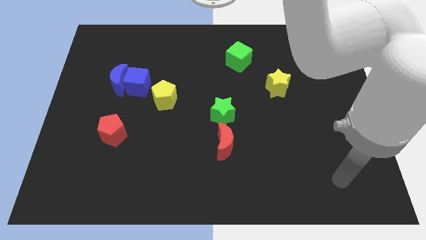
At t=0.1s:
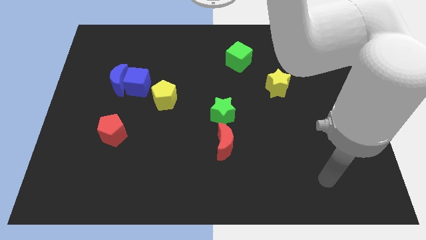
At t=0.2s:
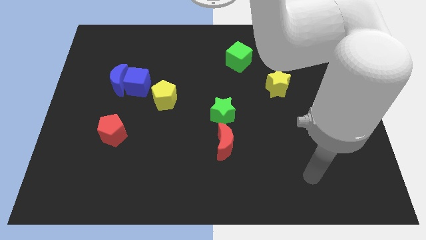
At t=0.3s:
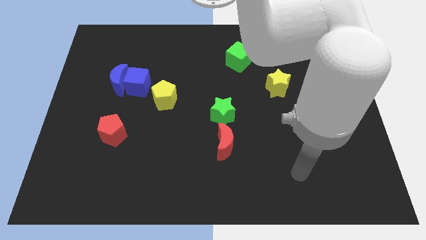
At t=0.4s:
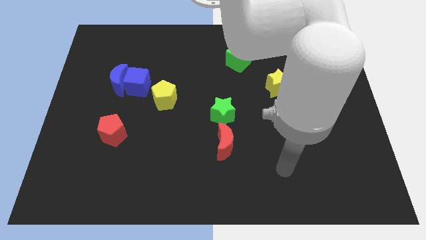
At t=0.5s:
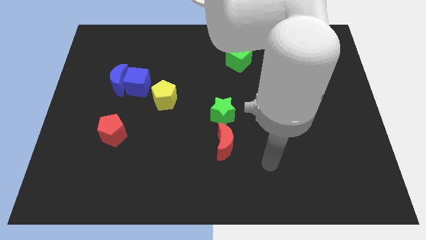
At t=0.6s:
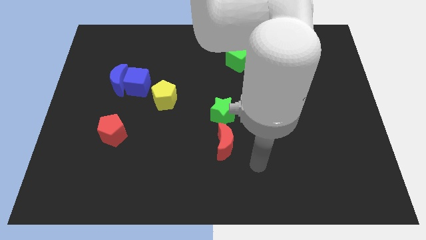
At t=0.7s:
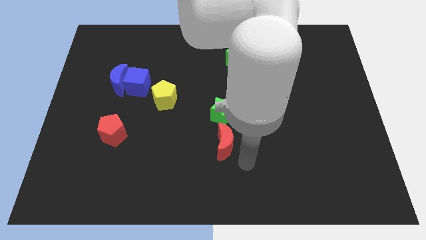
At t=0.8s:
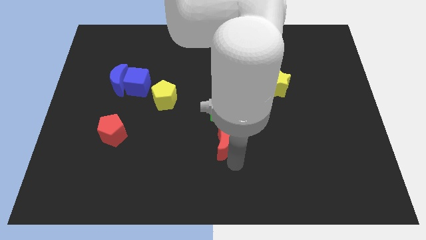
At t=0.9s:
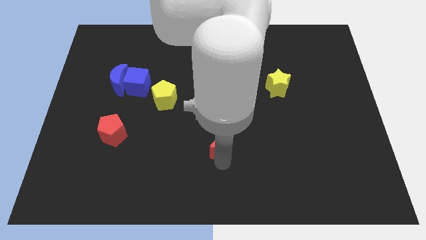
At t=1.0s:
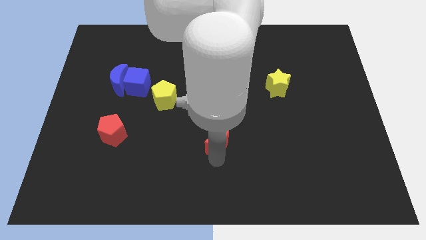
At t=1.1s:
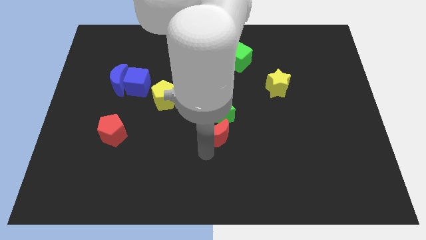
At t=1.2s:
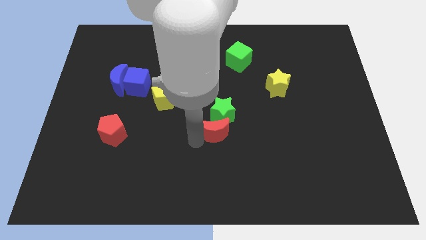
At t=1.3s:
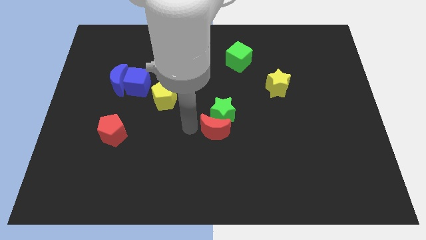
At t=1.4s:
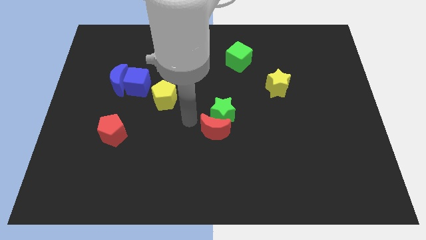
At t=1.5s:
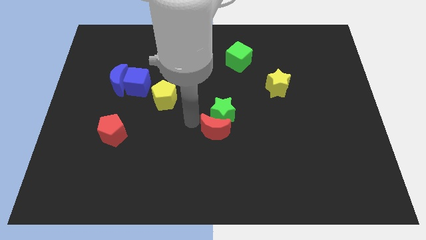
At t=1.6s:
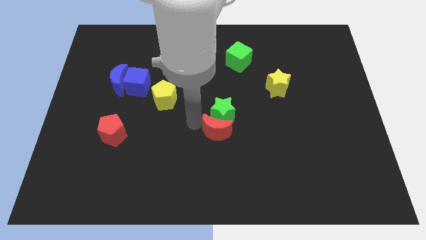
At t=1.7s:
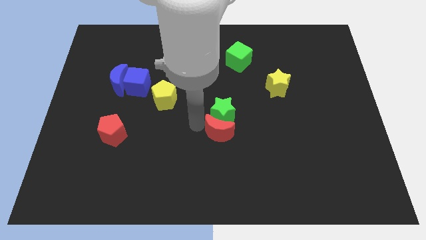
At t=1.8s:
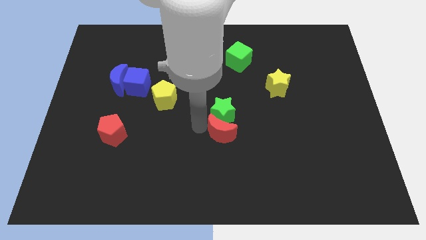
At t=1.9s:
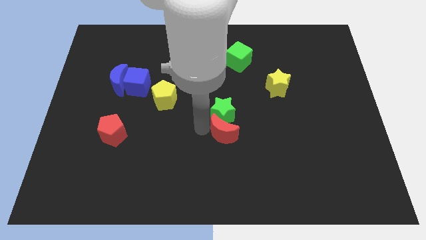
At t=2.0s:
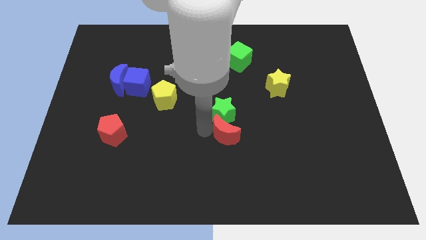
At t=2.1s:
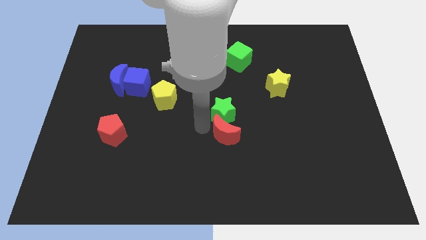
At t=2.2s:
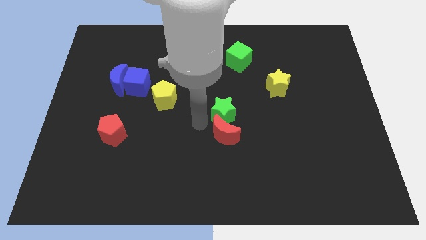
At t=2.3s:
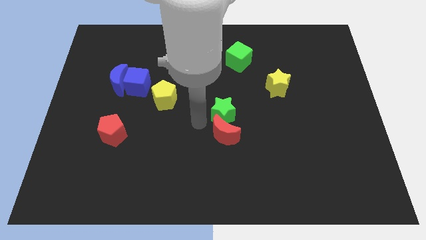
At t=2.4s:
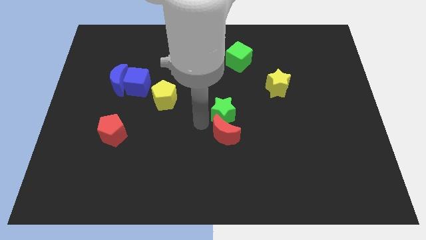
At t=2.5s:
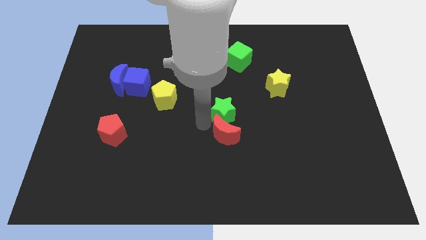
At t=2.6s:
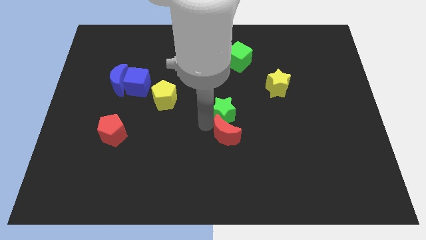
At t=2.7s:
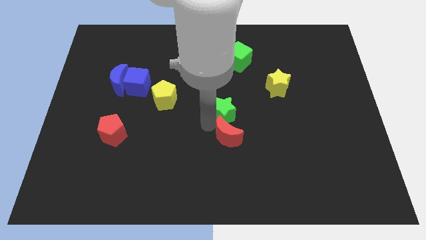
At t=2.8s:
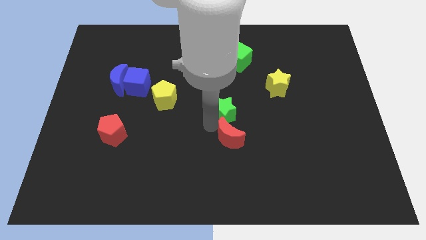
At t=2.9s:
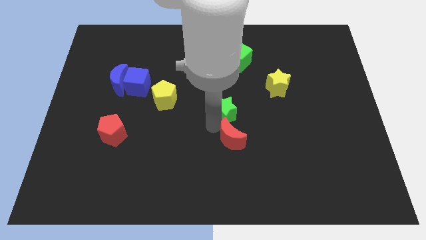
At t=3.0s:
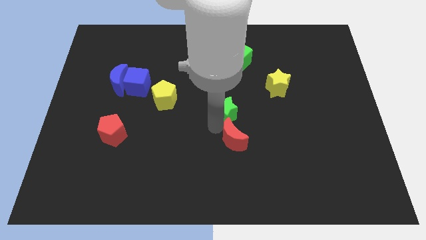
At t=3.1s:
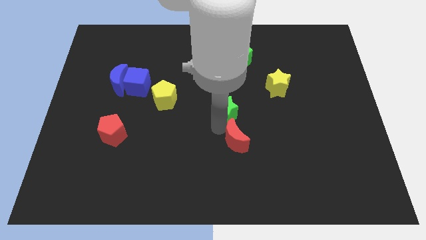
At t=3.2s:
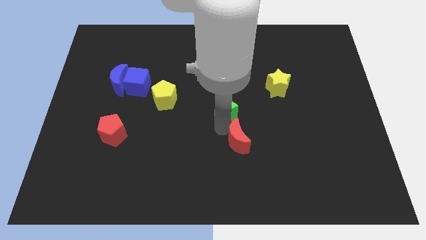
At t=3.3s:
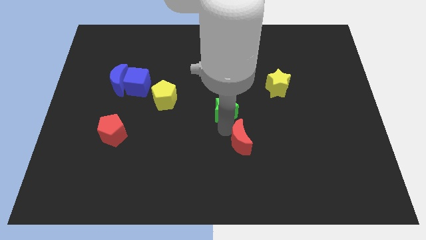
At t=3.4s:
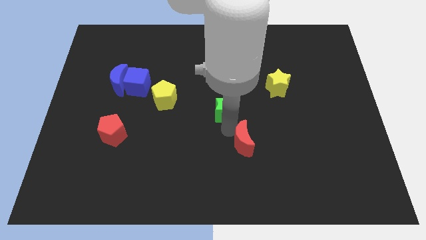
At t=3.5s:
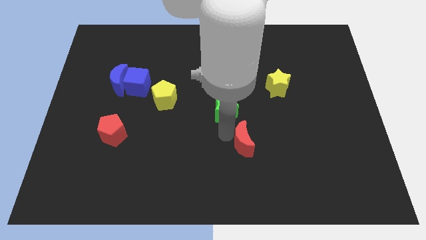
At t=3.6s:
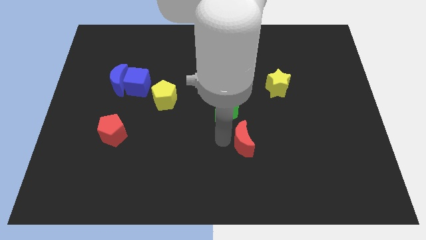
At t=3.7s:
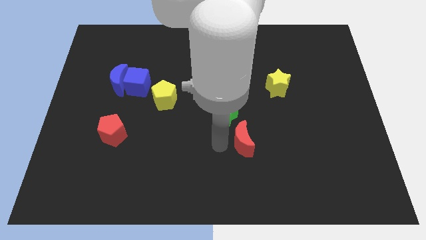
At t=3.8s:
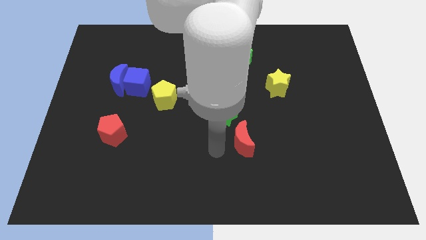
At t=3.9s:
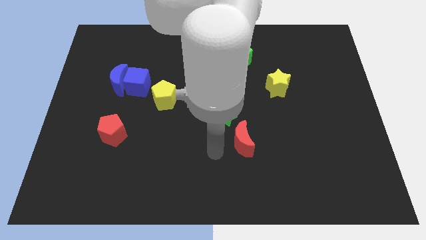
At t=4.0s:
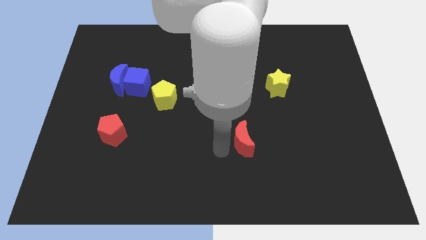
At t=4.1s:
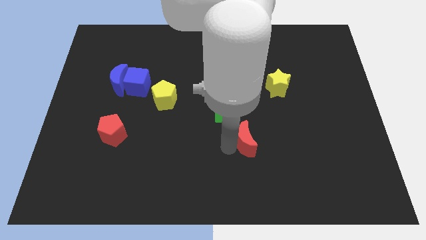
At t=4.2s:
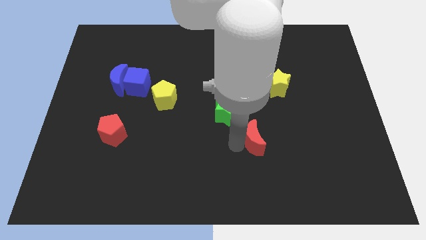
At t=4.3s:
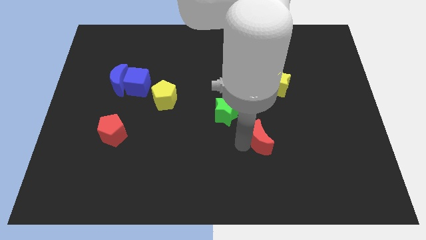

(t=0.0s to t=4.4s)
slightly push the red moon right

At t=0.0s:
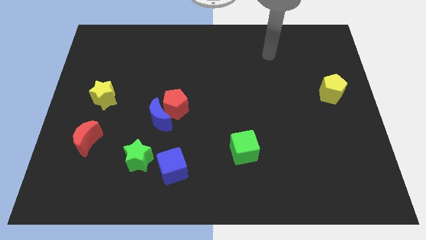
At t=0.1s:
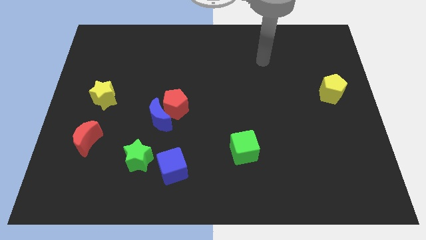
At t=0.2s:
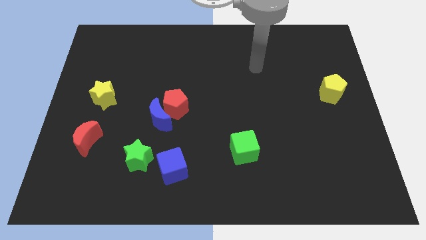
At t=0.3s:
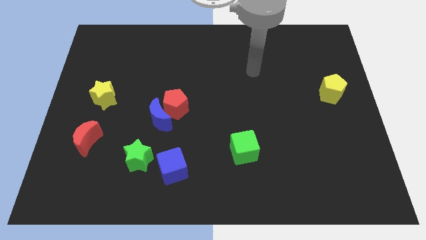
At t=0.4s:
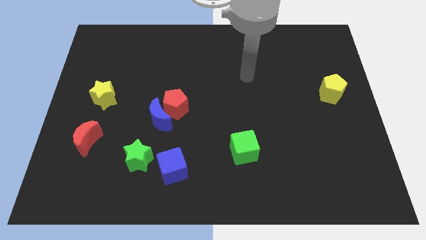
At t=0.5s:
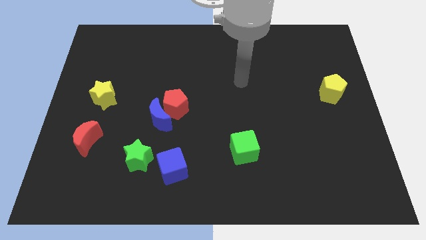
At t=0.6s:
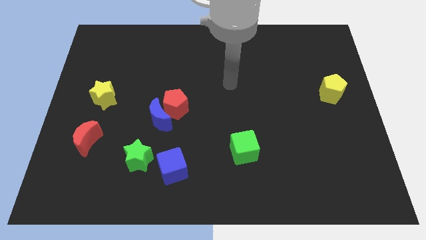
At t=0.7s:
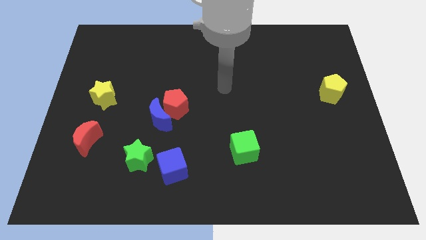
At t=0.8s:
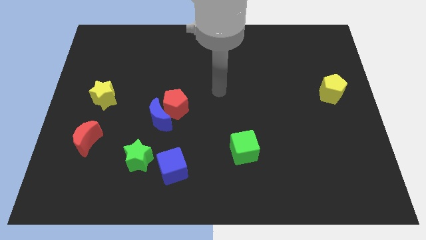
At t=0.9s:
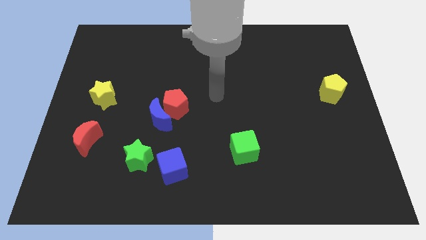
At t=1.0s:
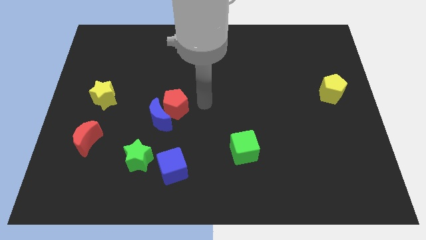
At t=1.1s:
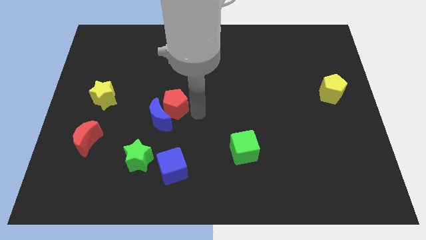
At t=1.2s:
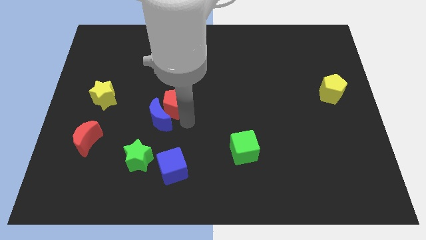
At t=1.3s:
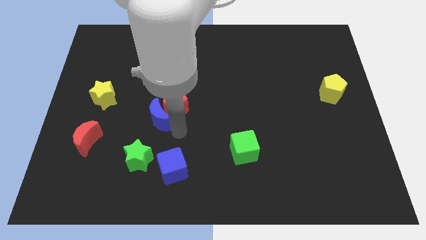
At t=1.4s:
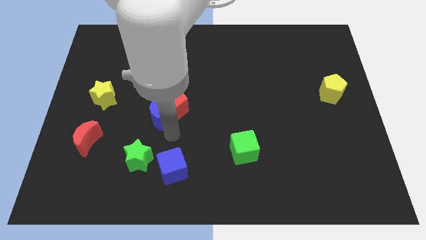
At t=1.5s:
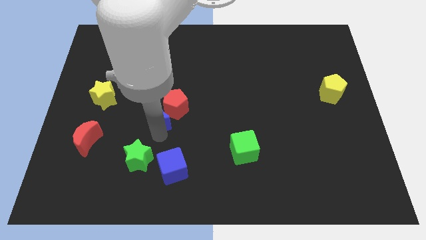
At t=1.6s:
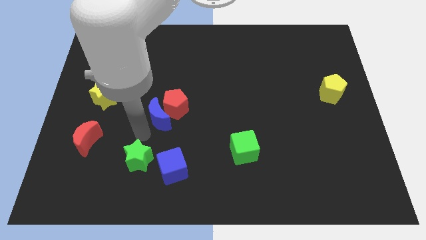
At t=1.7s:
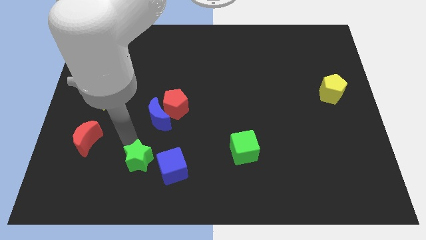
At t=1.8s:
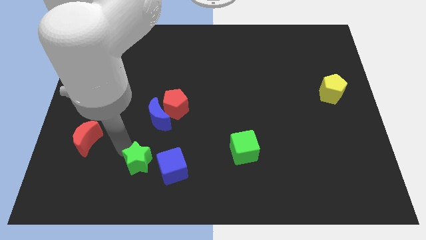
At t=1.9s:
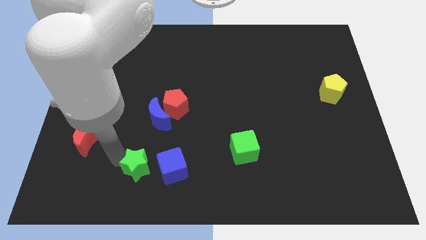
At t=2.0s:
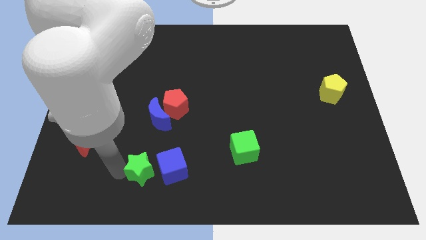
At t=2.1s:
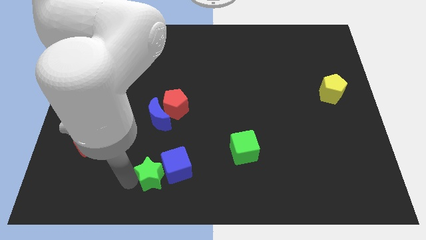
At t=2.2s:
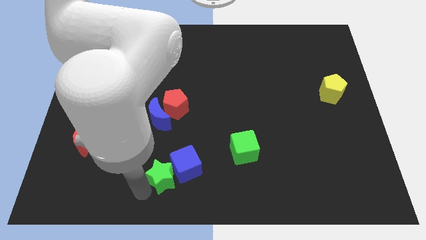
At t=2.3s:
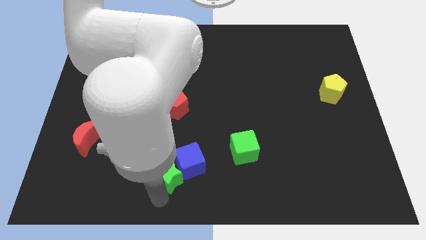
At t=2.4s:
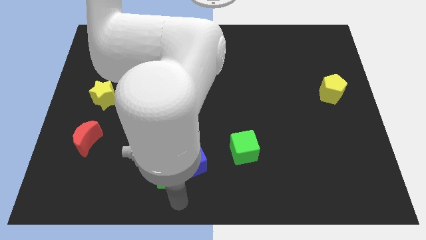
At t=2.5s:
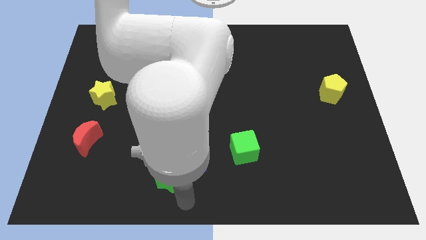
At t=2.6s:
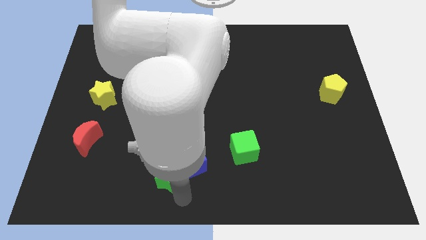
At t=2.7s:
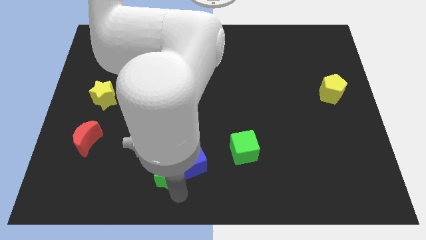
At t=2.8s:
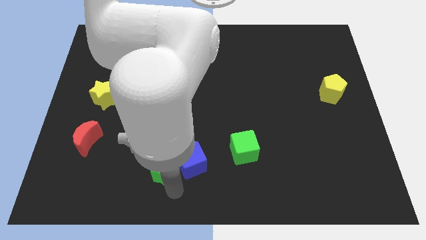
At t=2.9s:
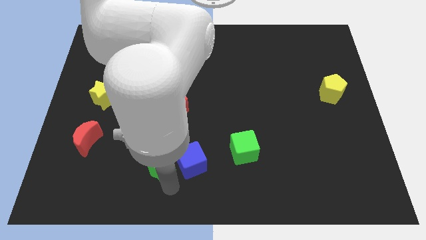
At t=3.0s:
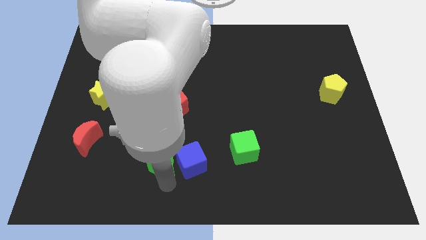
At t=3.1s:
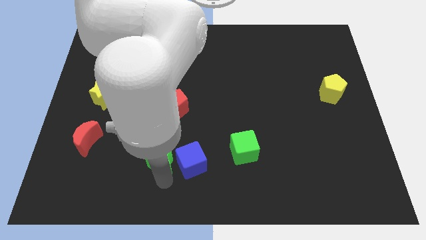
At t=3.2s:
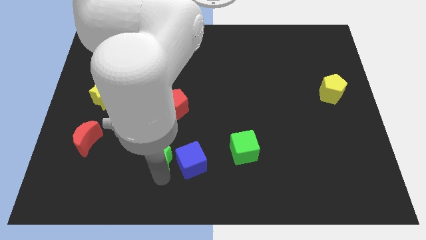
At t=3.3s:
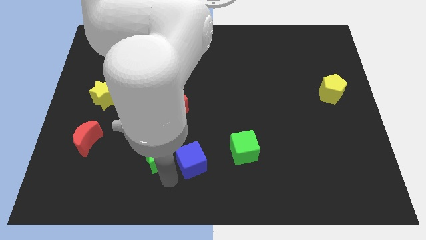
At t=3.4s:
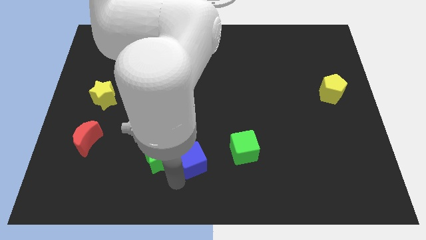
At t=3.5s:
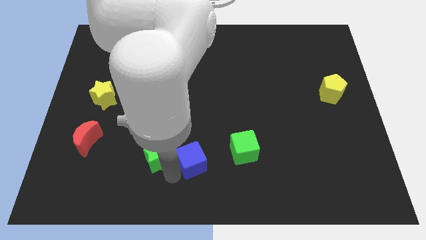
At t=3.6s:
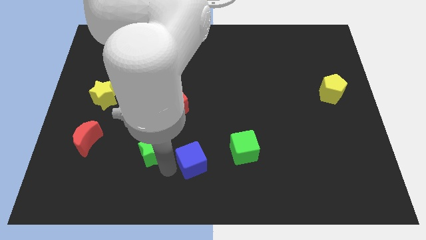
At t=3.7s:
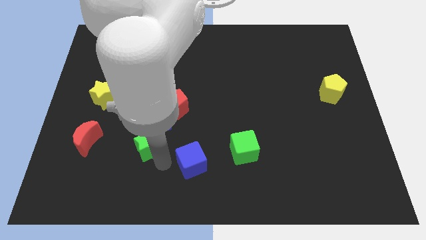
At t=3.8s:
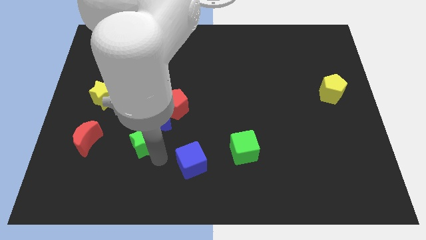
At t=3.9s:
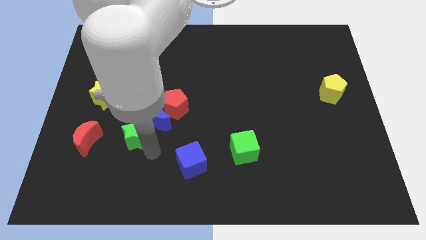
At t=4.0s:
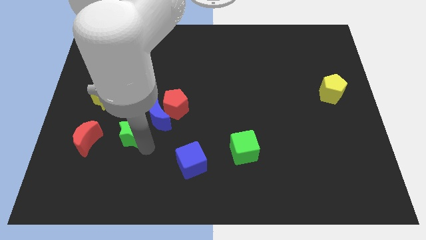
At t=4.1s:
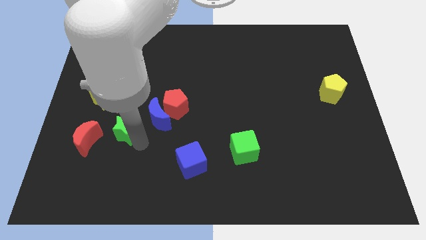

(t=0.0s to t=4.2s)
slightly push the green star up
